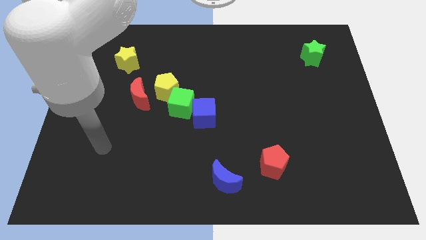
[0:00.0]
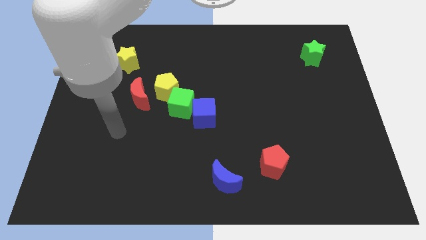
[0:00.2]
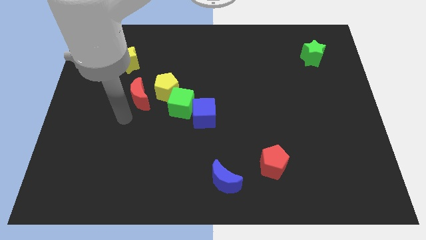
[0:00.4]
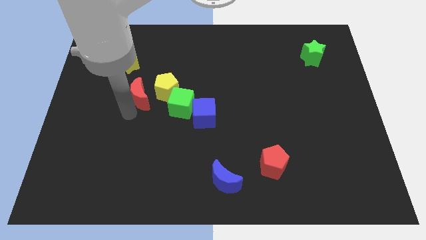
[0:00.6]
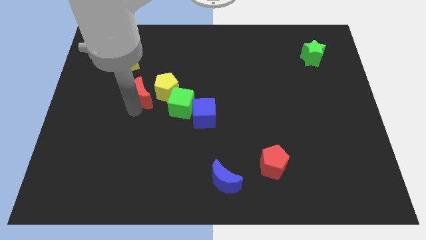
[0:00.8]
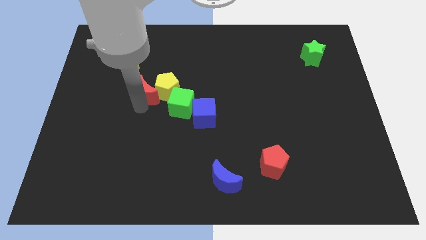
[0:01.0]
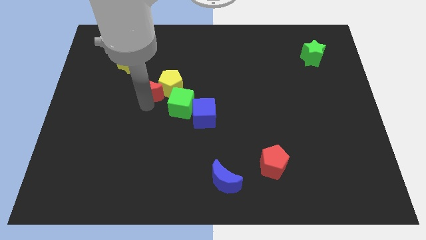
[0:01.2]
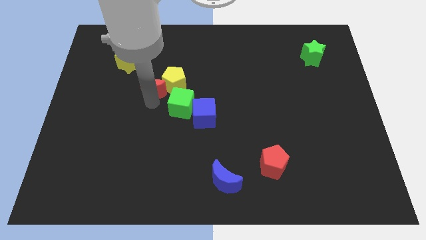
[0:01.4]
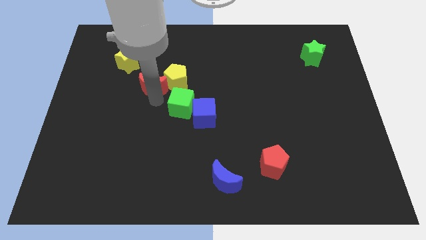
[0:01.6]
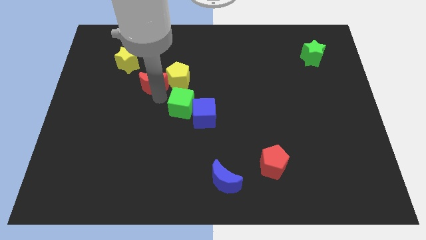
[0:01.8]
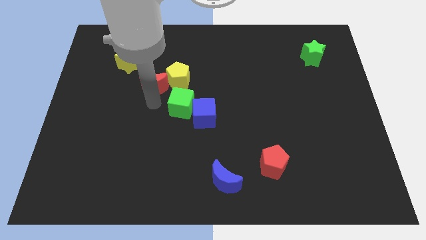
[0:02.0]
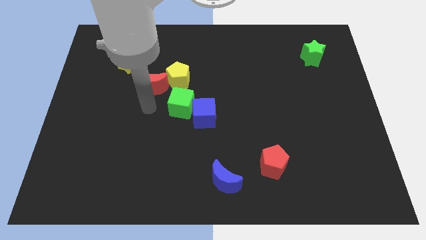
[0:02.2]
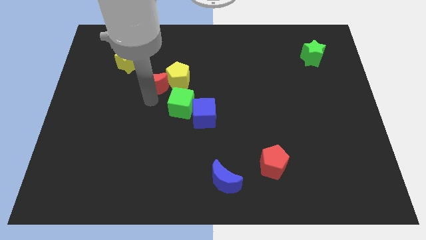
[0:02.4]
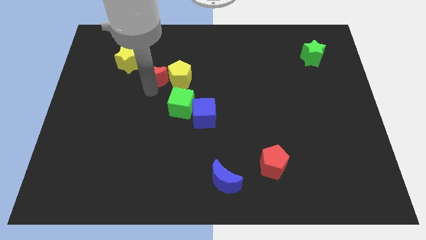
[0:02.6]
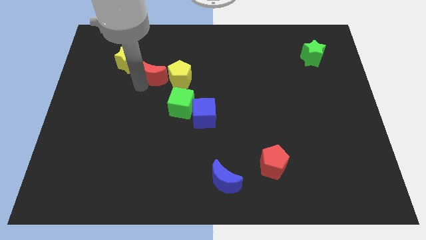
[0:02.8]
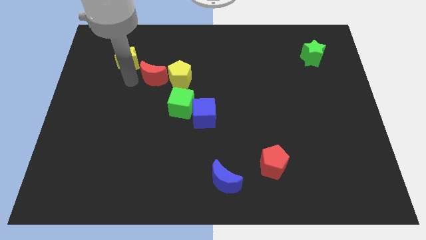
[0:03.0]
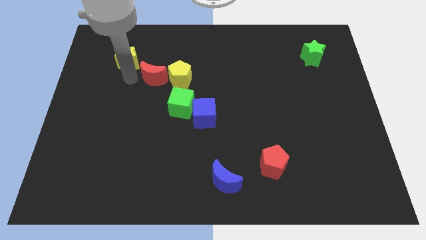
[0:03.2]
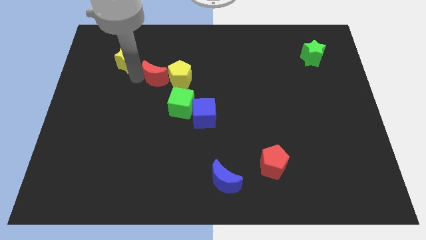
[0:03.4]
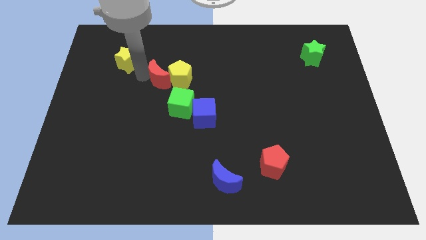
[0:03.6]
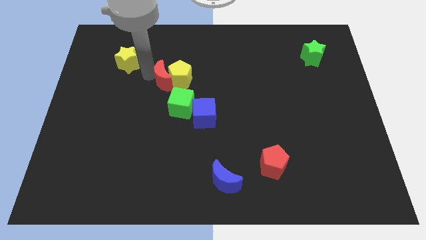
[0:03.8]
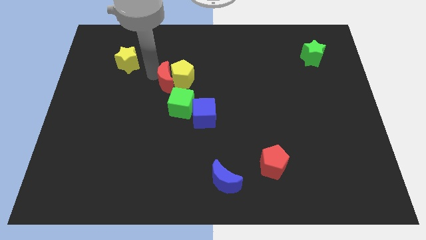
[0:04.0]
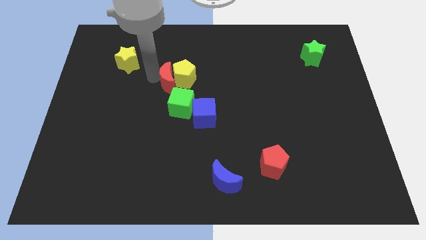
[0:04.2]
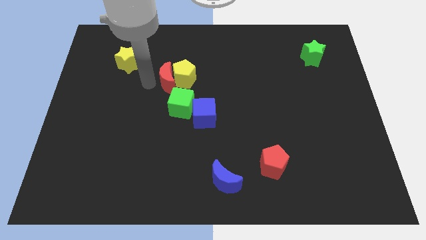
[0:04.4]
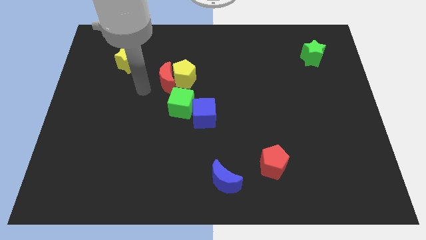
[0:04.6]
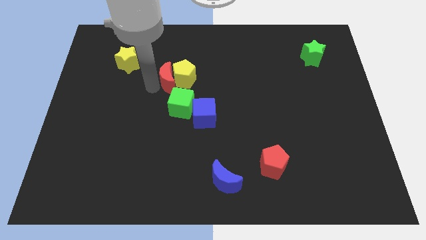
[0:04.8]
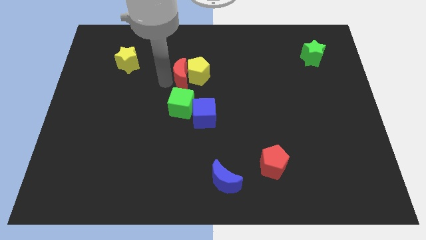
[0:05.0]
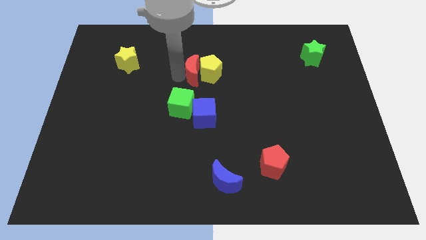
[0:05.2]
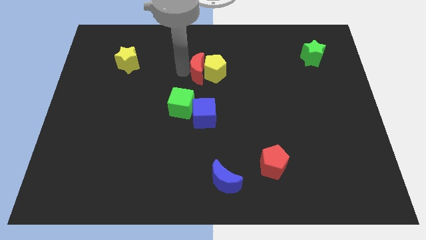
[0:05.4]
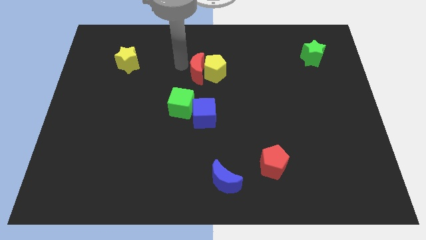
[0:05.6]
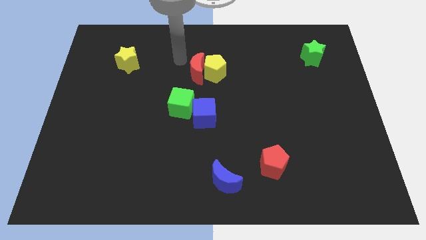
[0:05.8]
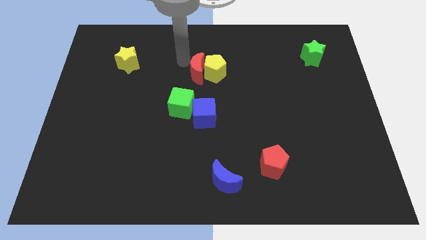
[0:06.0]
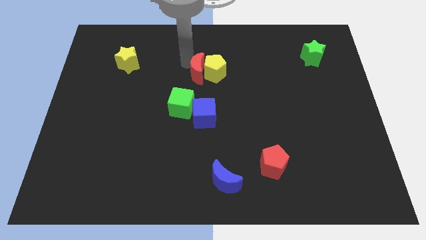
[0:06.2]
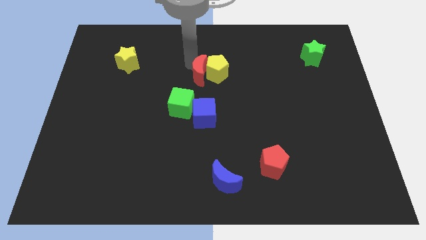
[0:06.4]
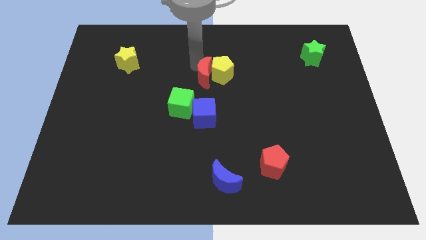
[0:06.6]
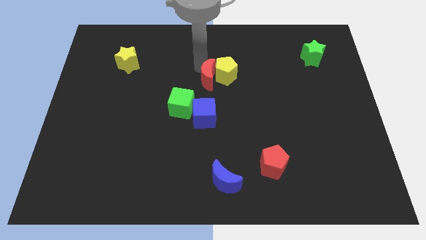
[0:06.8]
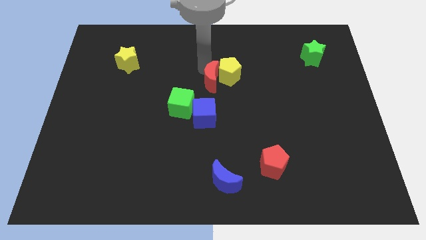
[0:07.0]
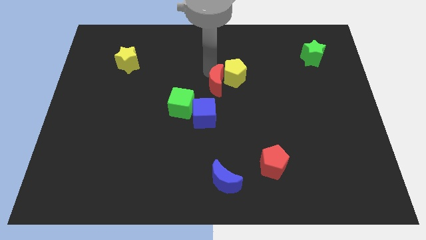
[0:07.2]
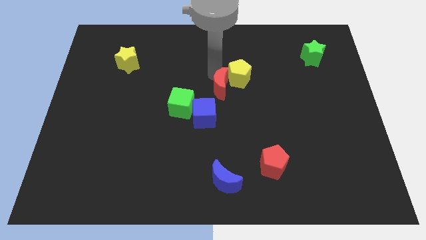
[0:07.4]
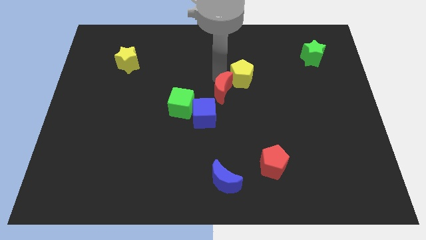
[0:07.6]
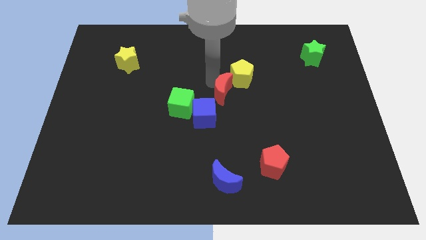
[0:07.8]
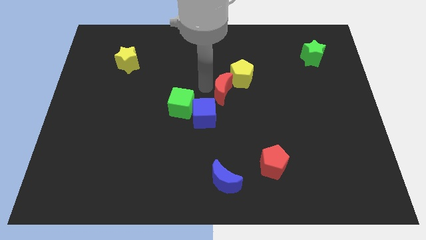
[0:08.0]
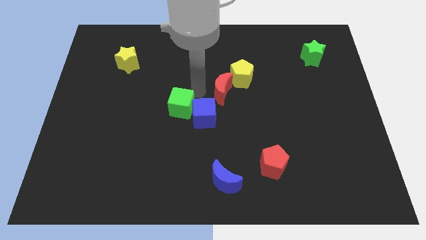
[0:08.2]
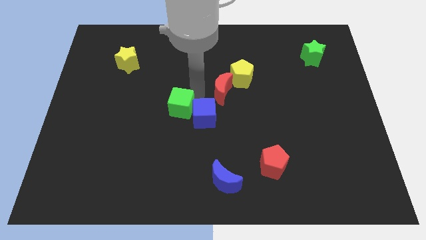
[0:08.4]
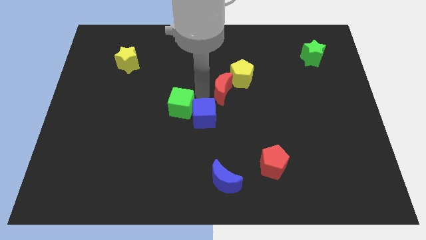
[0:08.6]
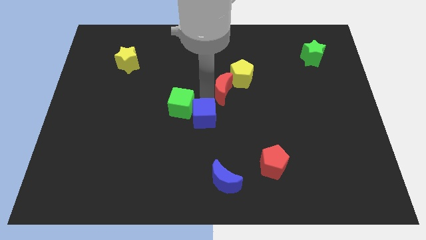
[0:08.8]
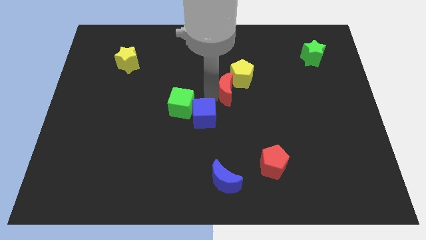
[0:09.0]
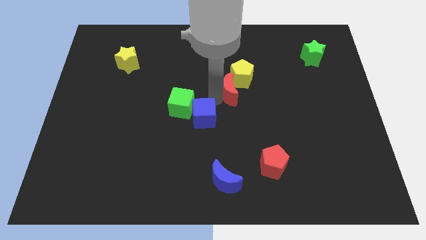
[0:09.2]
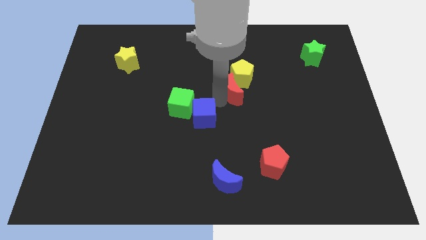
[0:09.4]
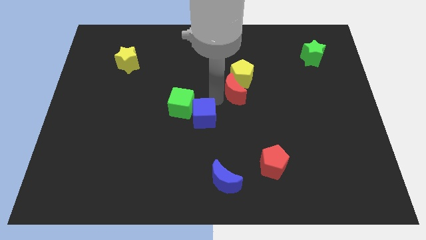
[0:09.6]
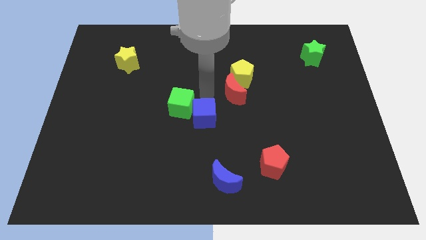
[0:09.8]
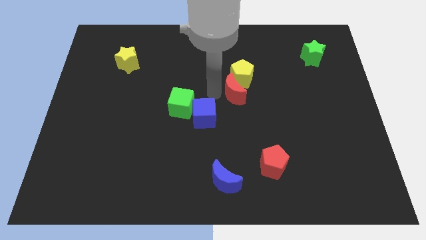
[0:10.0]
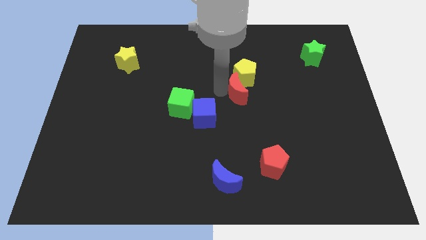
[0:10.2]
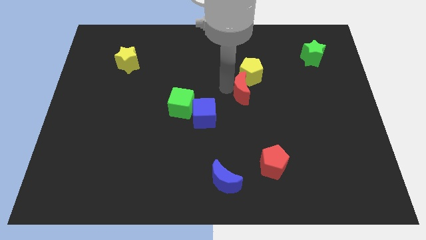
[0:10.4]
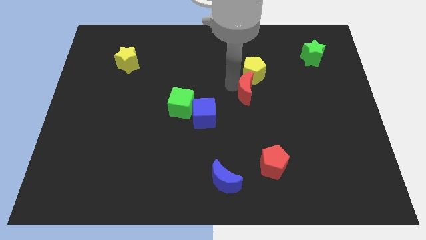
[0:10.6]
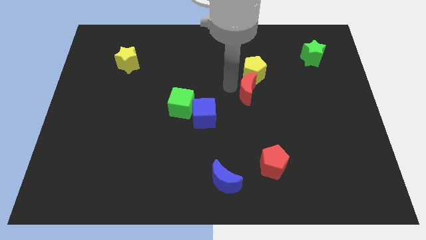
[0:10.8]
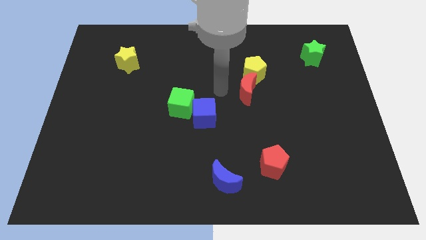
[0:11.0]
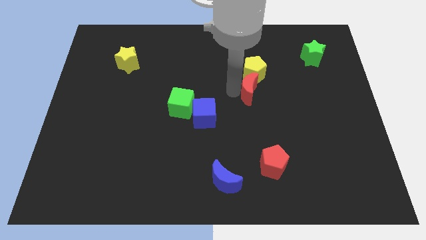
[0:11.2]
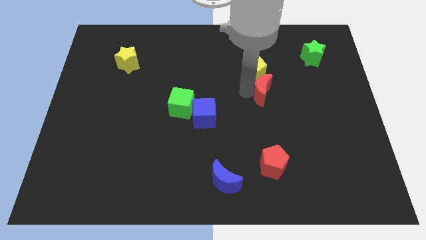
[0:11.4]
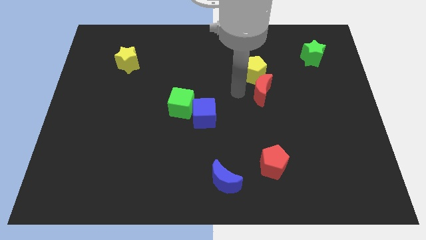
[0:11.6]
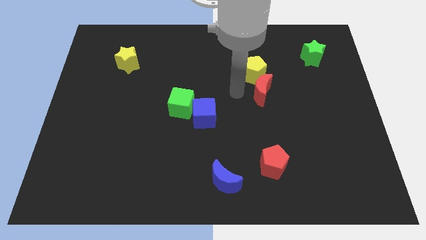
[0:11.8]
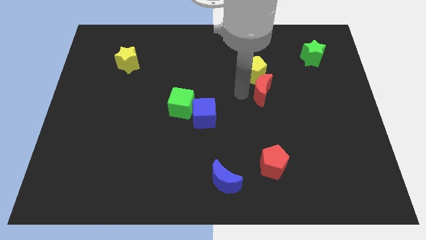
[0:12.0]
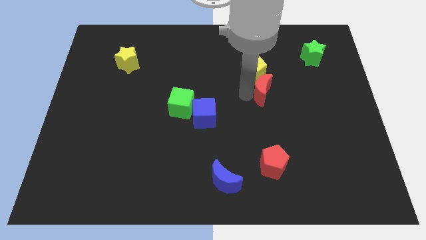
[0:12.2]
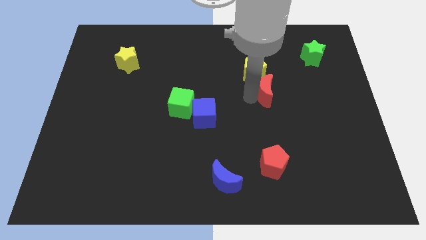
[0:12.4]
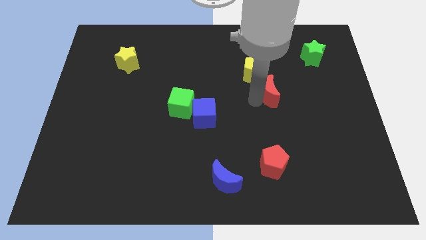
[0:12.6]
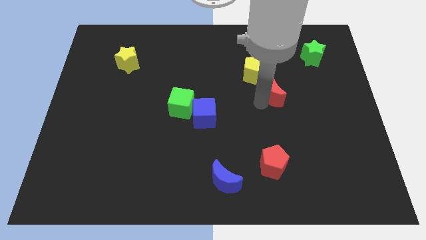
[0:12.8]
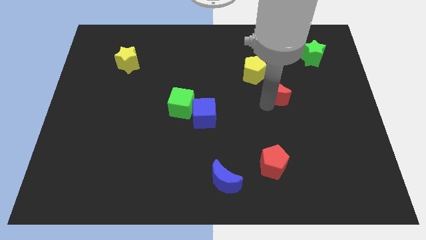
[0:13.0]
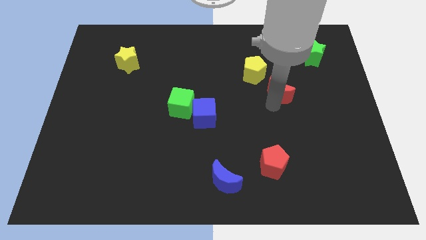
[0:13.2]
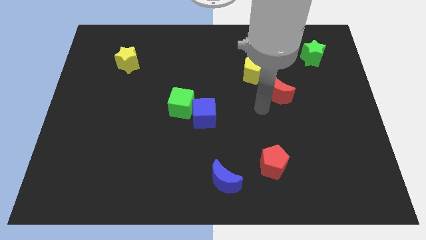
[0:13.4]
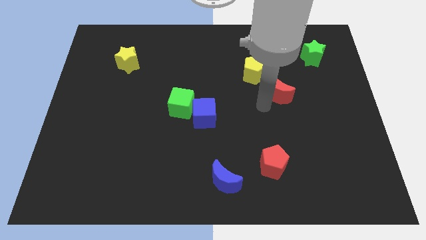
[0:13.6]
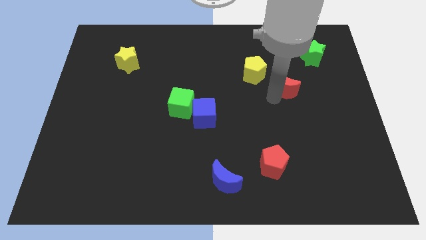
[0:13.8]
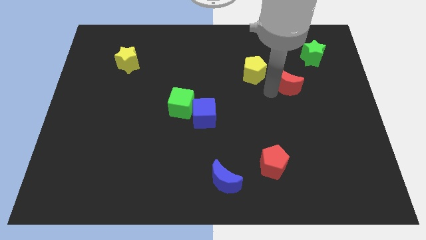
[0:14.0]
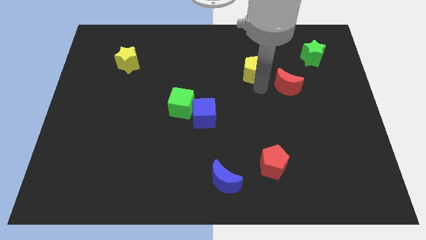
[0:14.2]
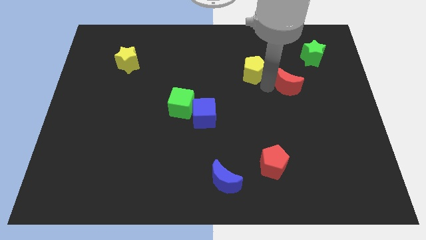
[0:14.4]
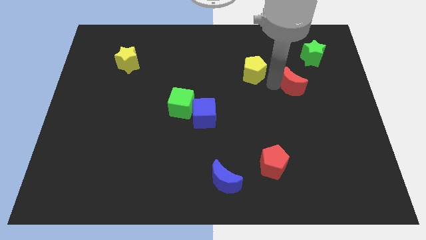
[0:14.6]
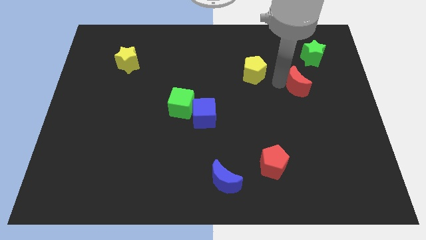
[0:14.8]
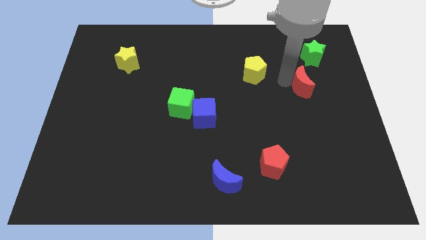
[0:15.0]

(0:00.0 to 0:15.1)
slide the red moon to the bottom side of the green star

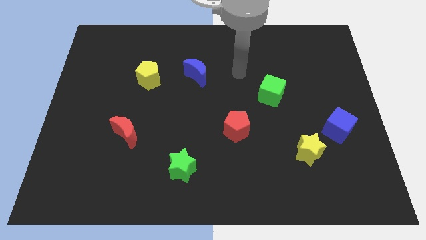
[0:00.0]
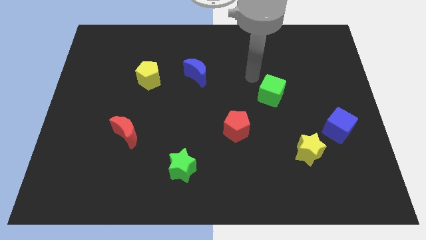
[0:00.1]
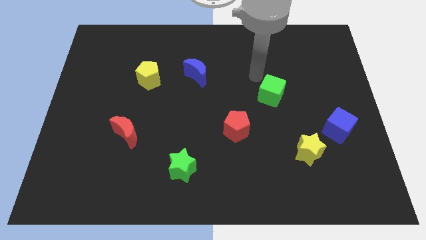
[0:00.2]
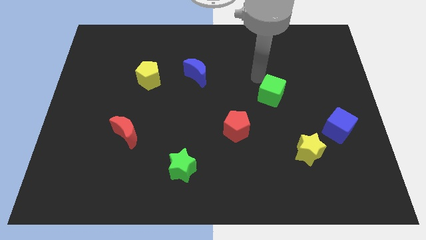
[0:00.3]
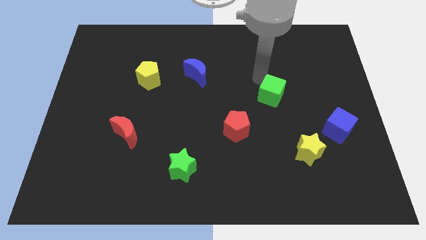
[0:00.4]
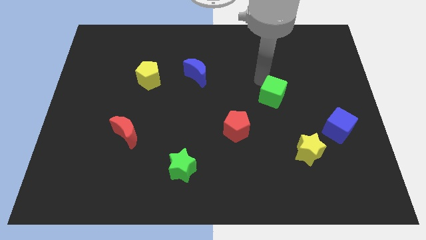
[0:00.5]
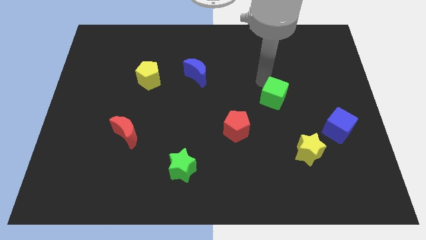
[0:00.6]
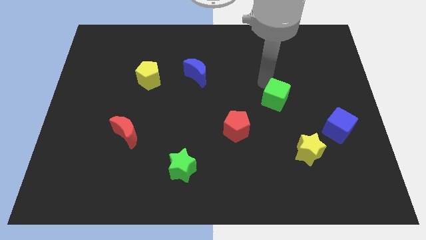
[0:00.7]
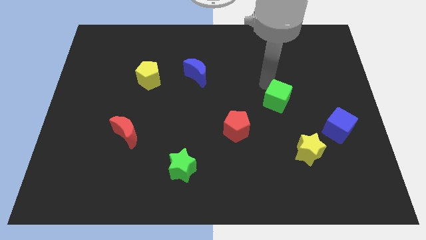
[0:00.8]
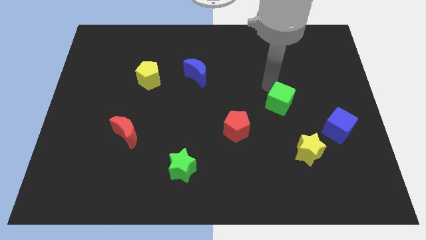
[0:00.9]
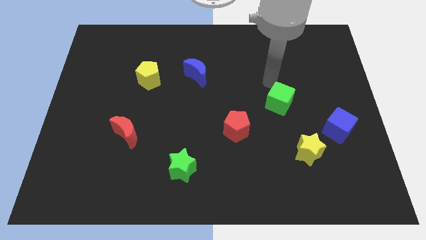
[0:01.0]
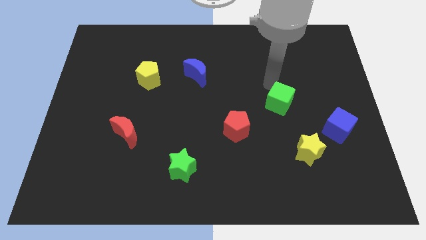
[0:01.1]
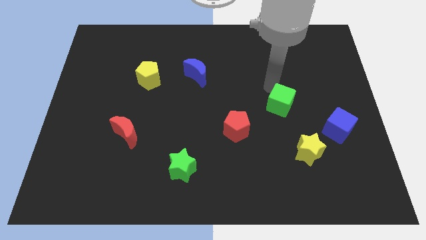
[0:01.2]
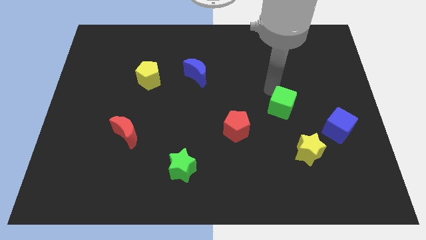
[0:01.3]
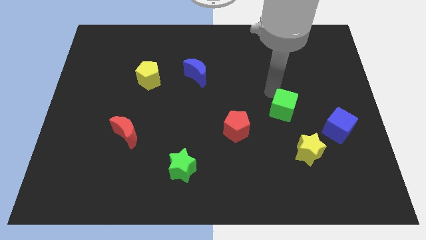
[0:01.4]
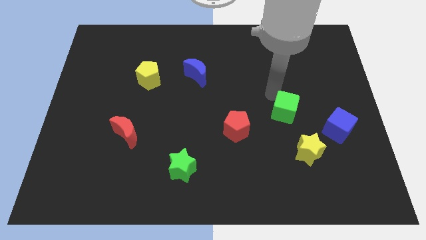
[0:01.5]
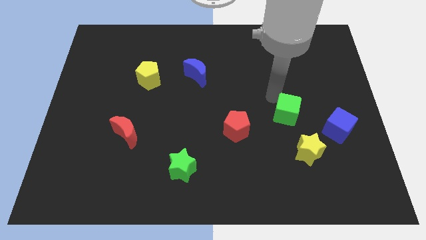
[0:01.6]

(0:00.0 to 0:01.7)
put the green cube left of the blue cube
